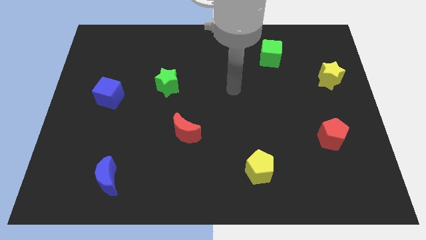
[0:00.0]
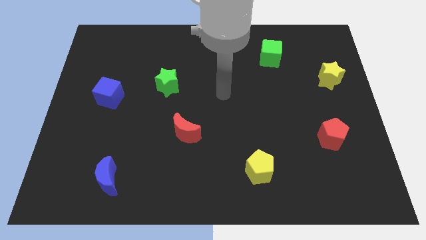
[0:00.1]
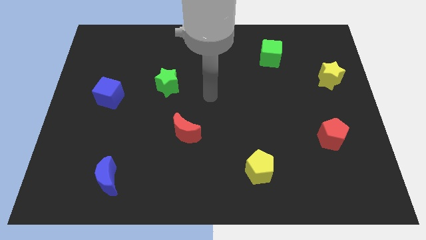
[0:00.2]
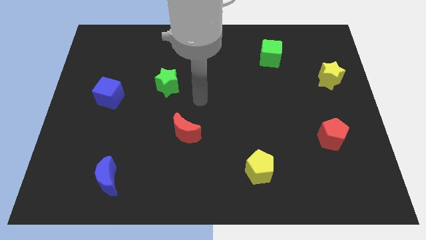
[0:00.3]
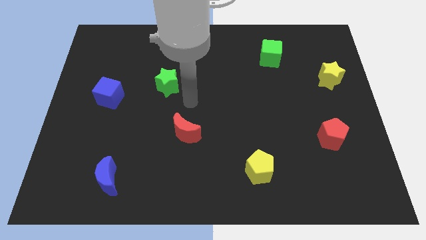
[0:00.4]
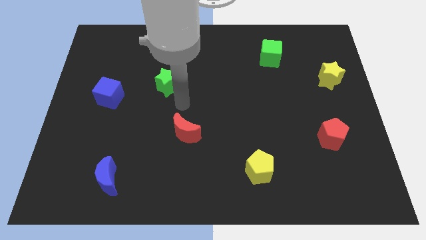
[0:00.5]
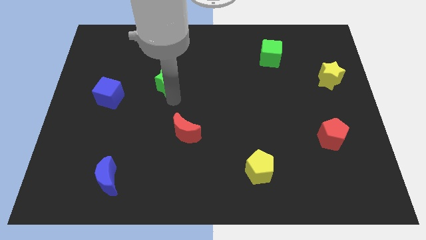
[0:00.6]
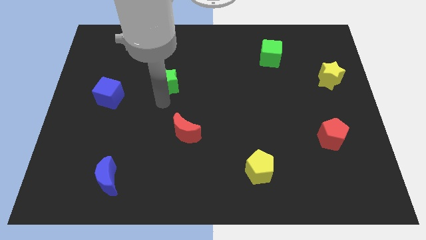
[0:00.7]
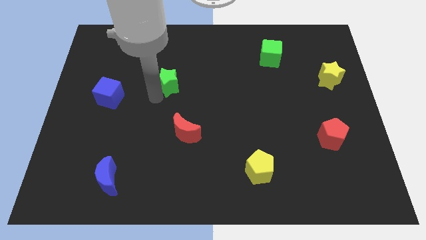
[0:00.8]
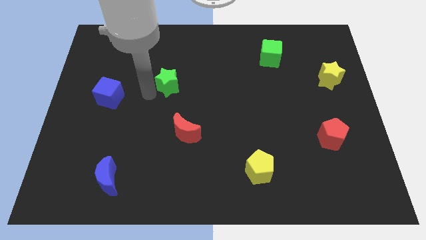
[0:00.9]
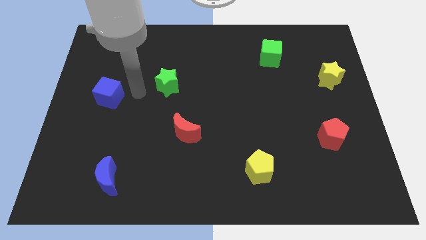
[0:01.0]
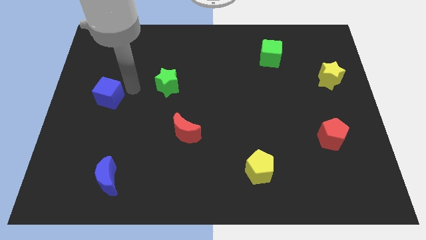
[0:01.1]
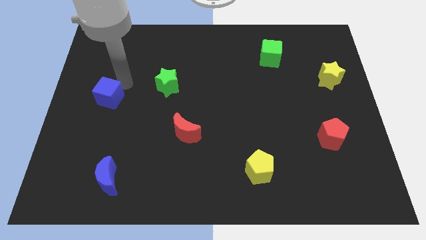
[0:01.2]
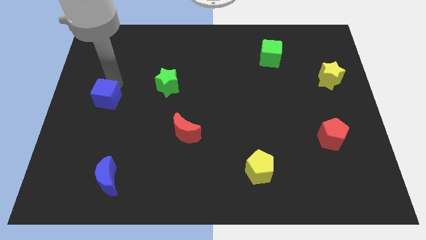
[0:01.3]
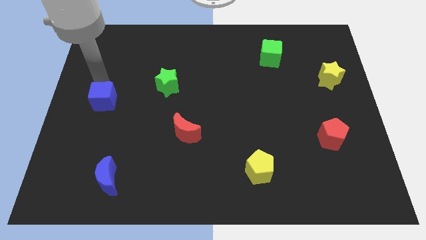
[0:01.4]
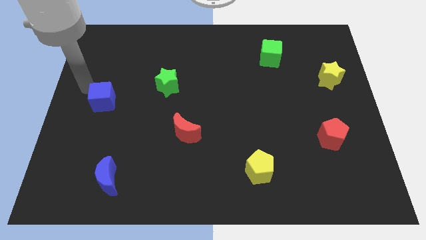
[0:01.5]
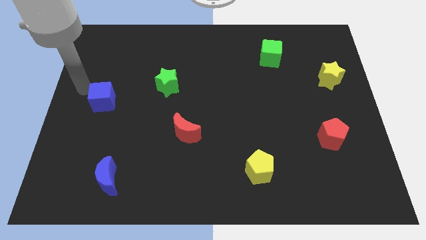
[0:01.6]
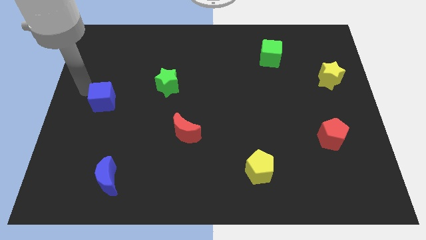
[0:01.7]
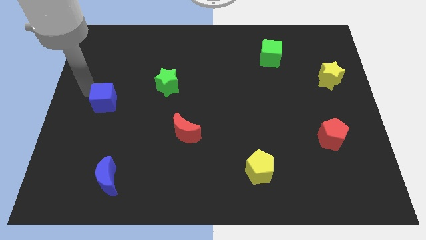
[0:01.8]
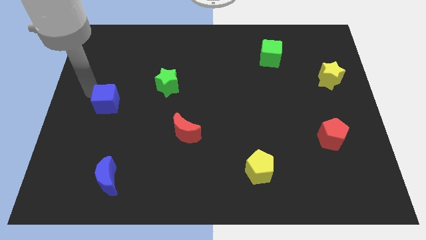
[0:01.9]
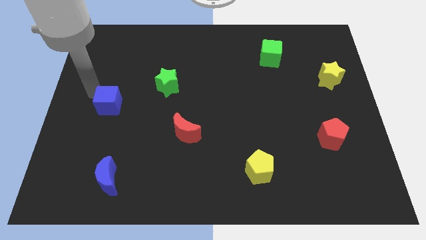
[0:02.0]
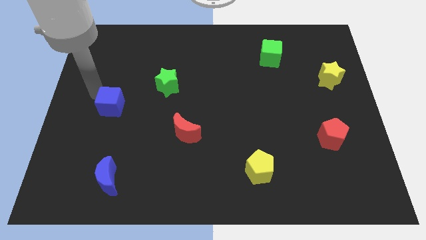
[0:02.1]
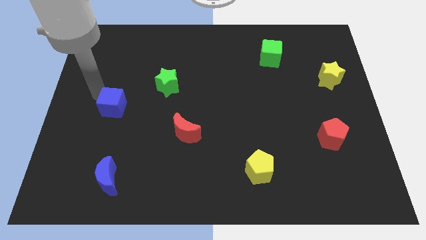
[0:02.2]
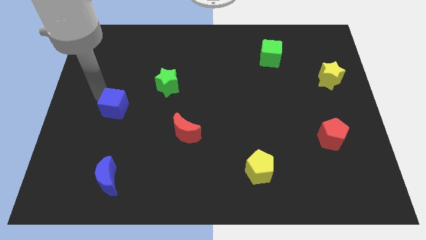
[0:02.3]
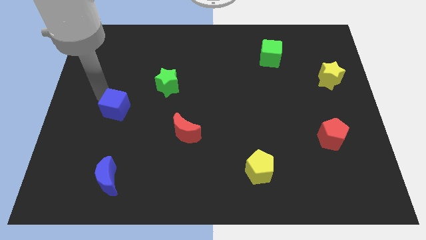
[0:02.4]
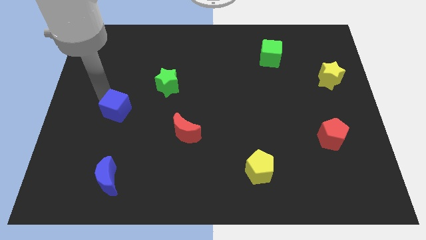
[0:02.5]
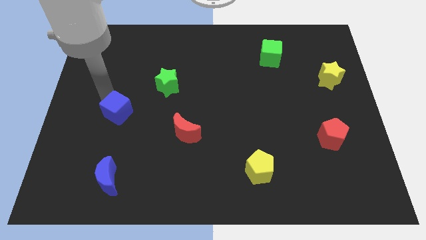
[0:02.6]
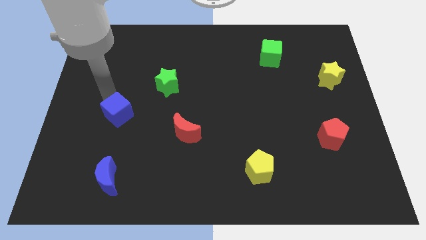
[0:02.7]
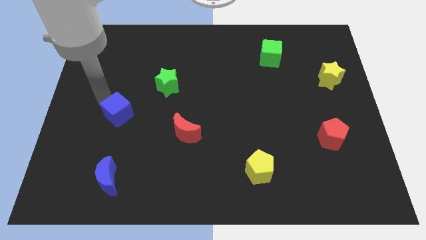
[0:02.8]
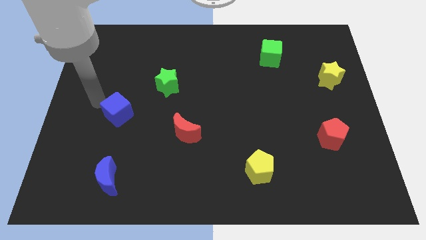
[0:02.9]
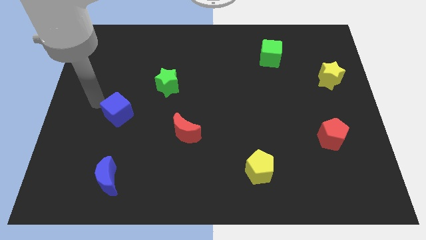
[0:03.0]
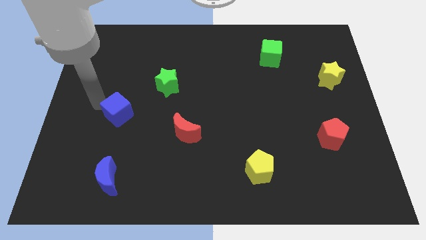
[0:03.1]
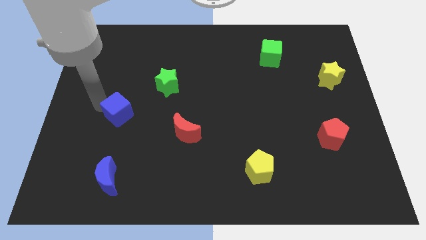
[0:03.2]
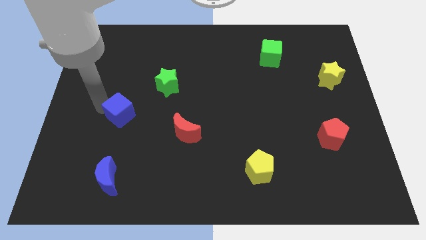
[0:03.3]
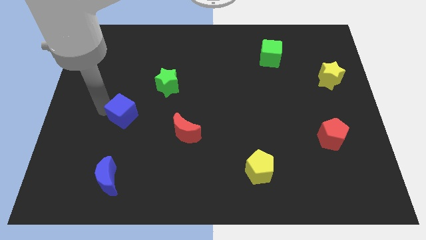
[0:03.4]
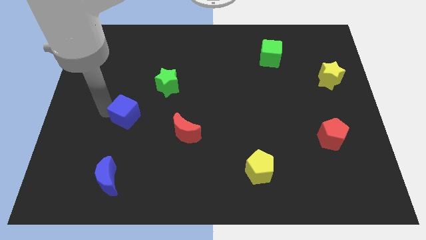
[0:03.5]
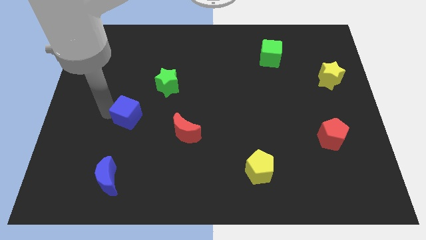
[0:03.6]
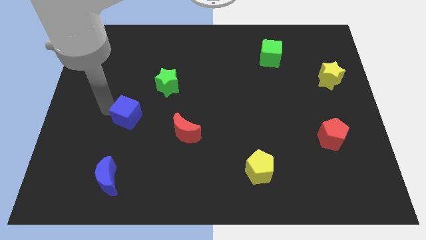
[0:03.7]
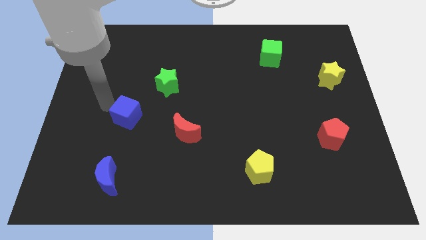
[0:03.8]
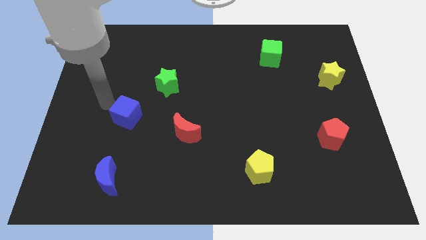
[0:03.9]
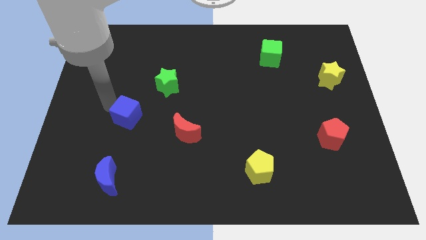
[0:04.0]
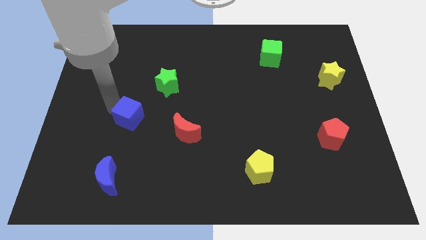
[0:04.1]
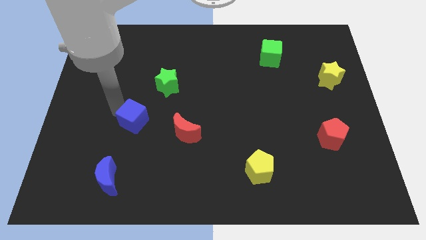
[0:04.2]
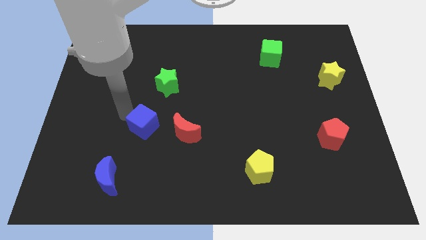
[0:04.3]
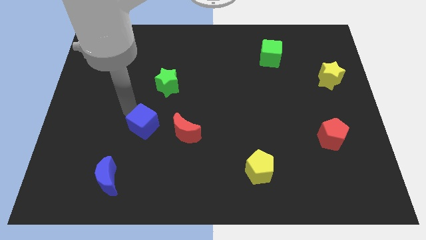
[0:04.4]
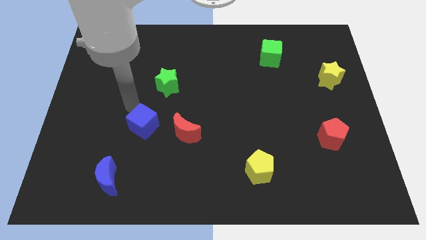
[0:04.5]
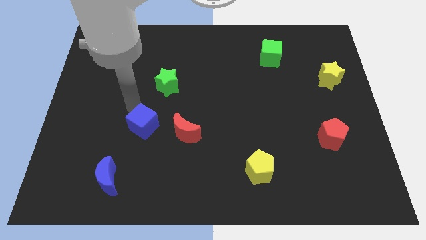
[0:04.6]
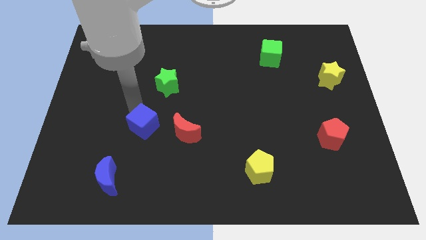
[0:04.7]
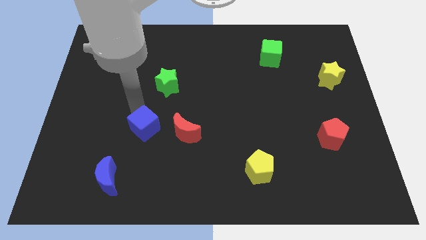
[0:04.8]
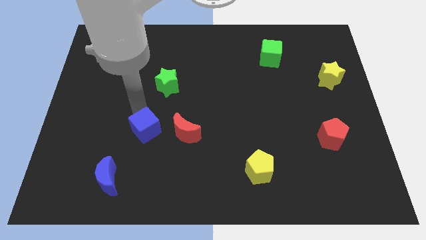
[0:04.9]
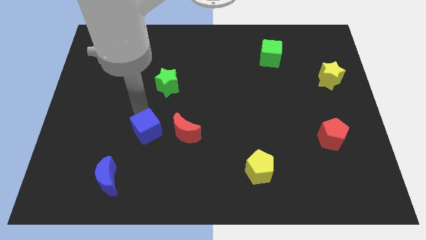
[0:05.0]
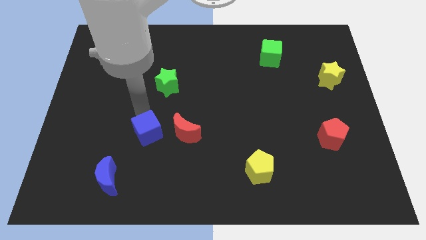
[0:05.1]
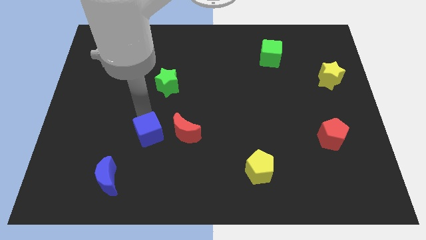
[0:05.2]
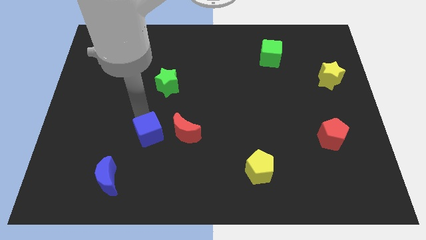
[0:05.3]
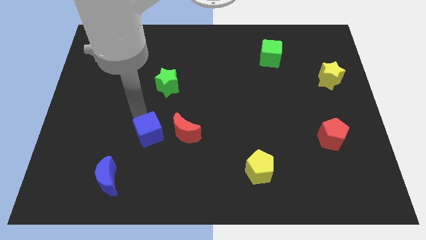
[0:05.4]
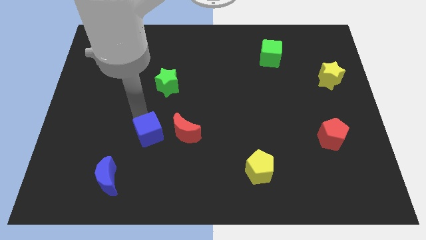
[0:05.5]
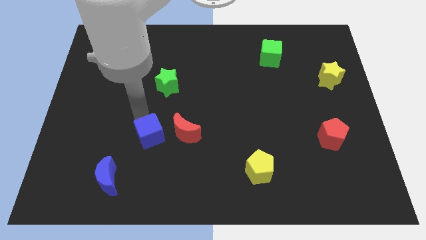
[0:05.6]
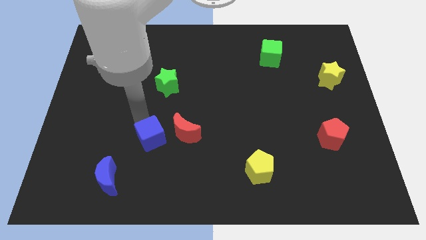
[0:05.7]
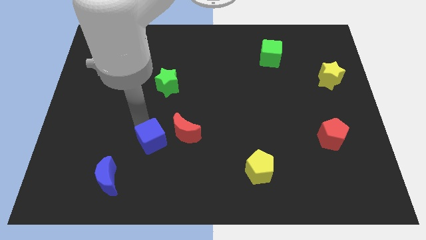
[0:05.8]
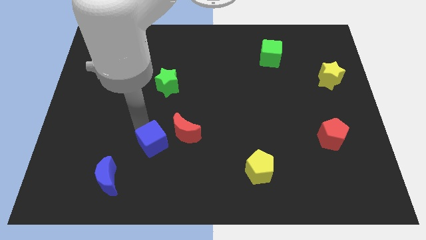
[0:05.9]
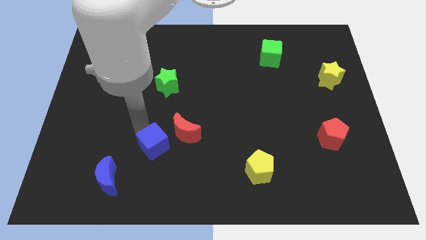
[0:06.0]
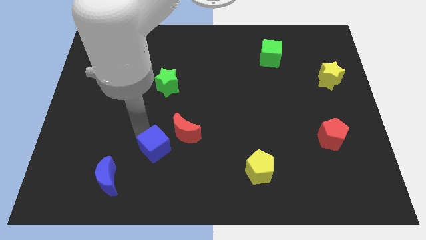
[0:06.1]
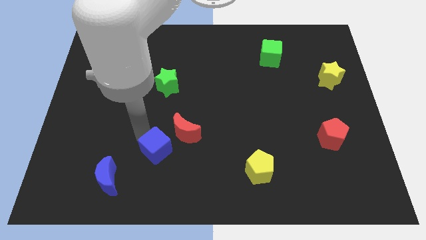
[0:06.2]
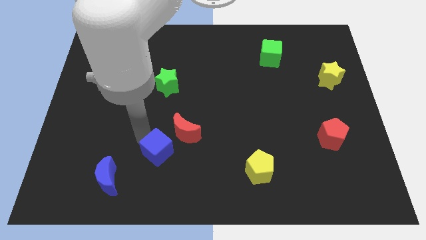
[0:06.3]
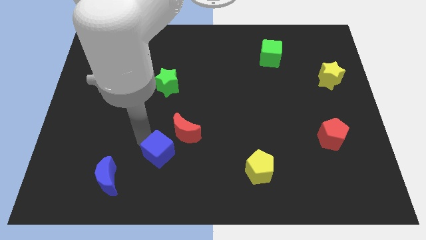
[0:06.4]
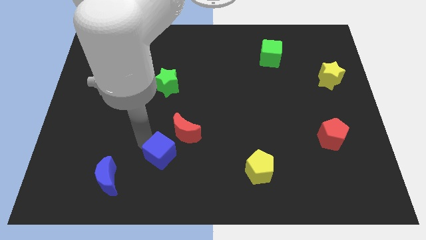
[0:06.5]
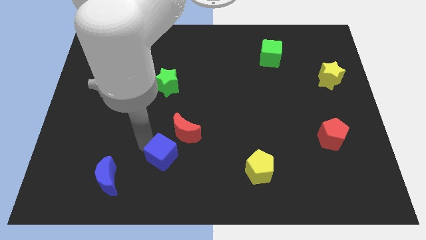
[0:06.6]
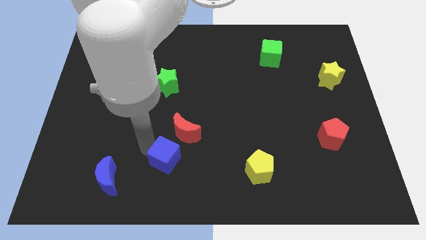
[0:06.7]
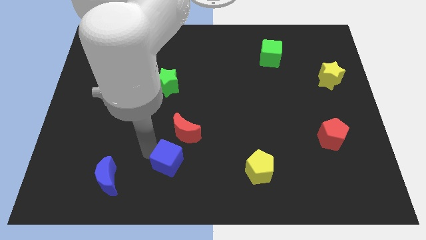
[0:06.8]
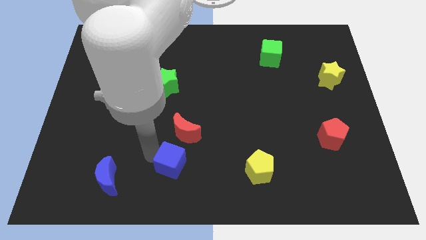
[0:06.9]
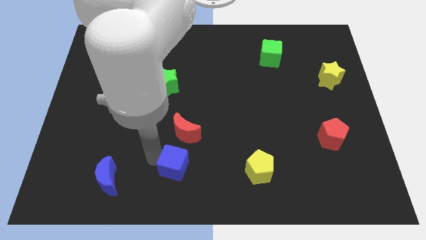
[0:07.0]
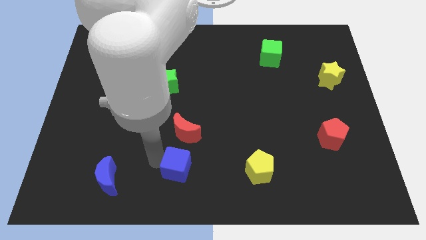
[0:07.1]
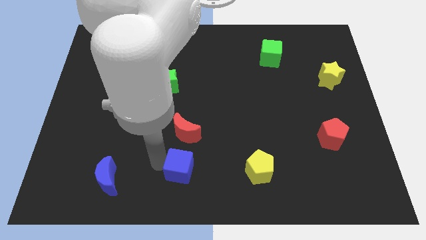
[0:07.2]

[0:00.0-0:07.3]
slide the blue cube to the left of the yellow pentagon
